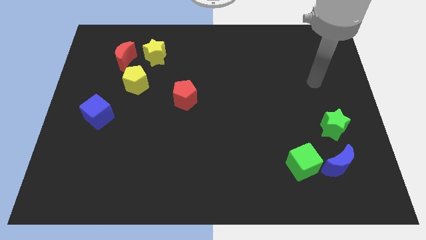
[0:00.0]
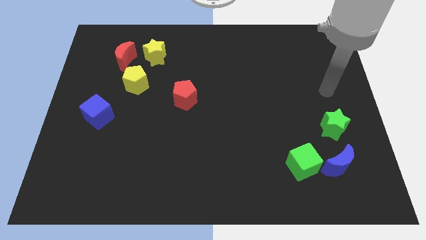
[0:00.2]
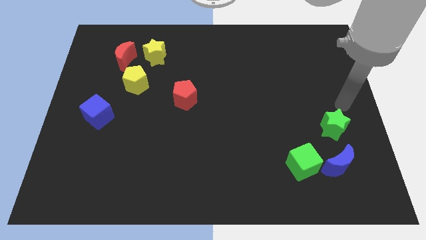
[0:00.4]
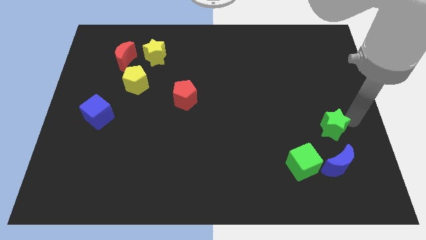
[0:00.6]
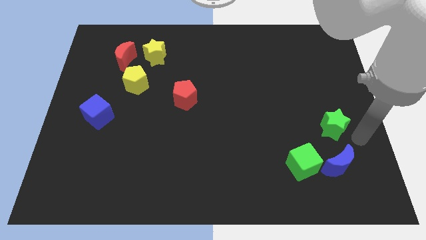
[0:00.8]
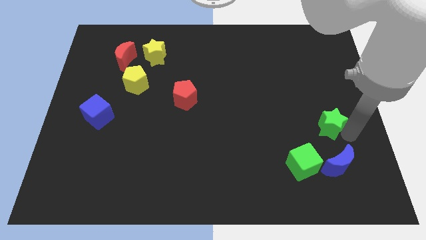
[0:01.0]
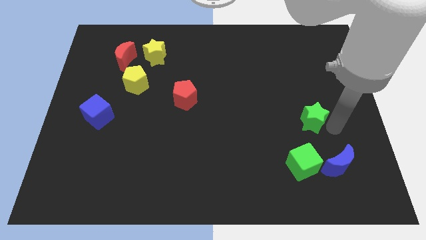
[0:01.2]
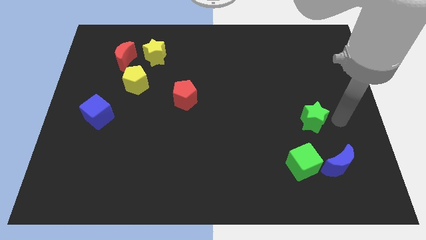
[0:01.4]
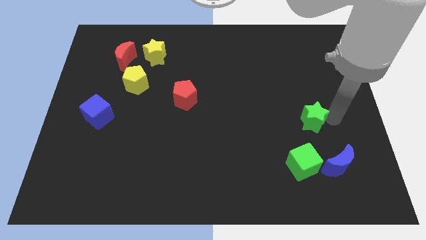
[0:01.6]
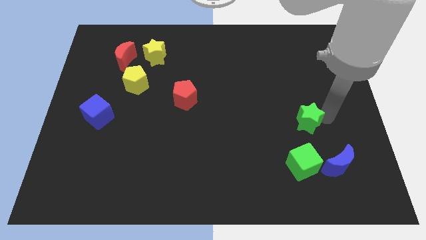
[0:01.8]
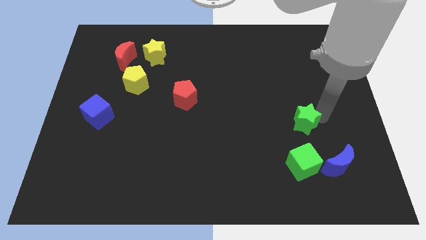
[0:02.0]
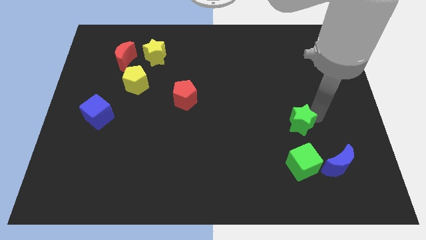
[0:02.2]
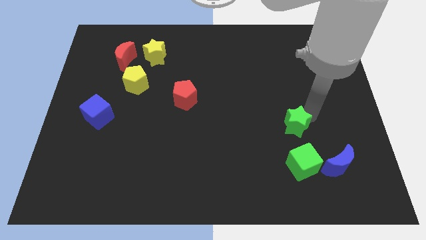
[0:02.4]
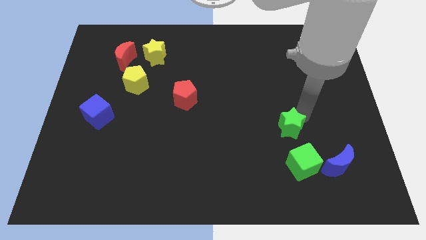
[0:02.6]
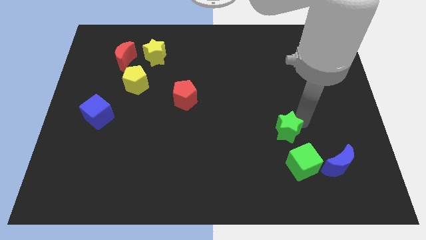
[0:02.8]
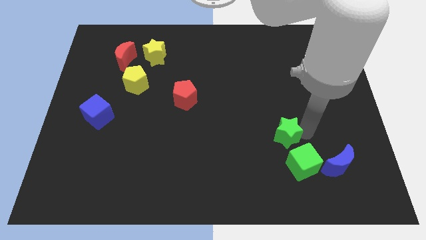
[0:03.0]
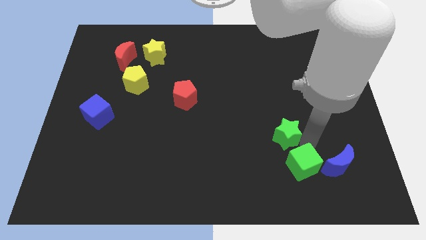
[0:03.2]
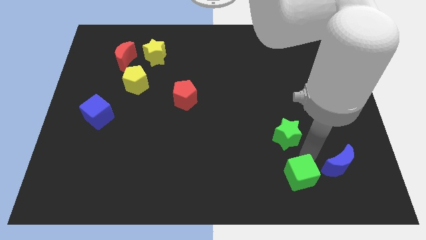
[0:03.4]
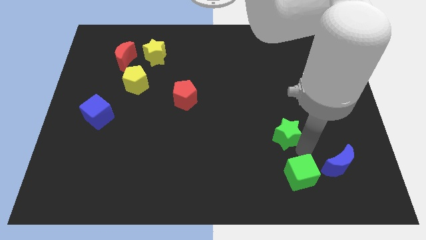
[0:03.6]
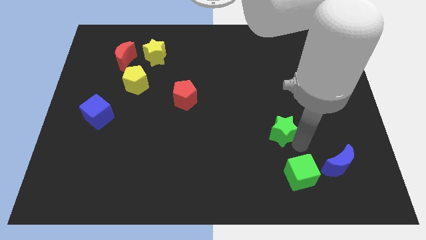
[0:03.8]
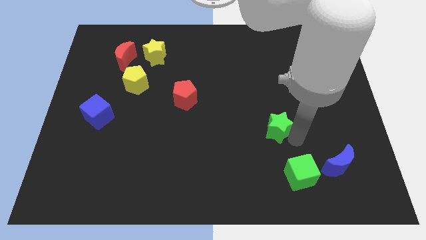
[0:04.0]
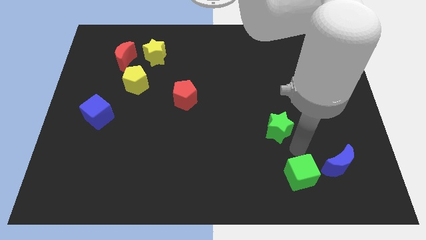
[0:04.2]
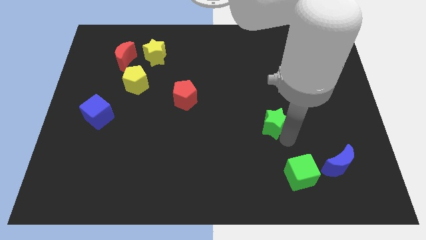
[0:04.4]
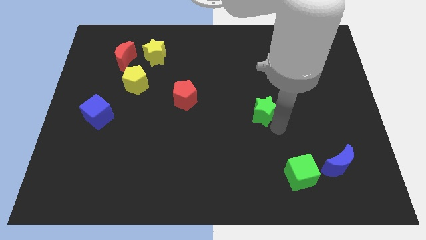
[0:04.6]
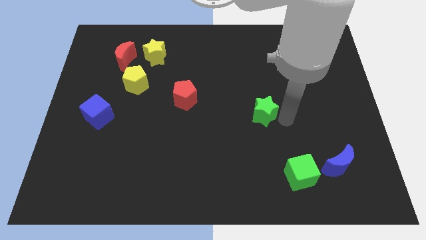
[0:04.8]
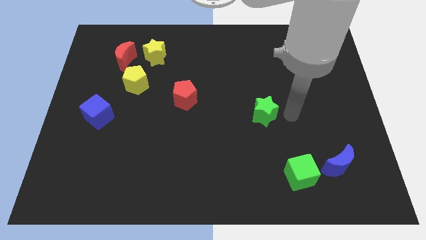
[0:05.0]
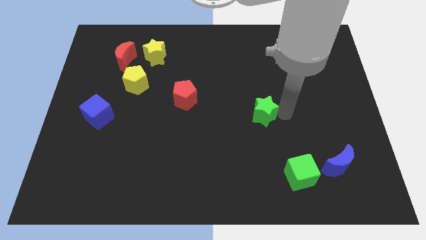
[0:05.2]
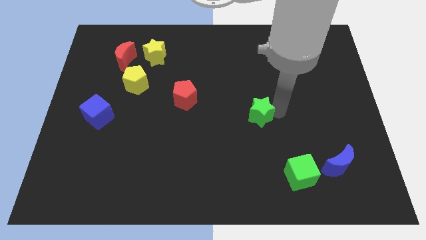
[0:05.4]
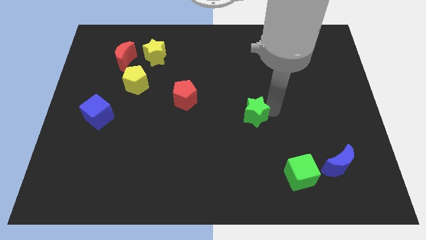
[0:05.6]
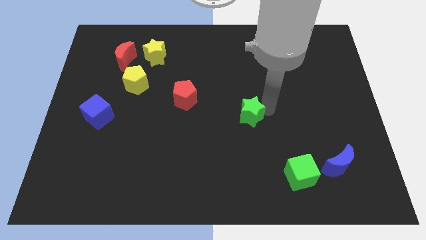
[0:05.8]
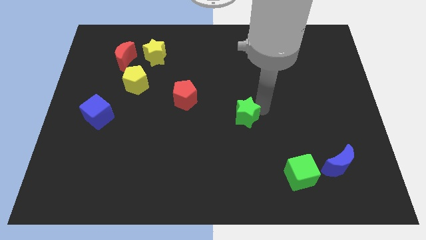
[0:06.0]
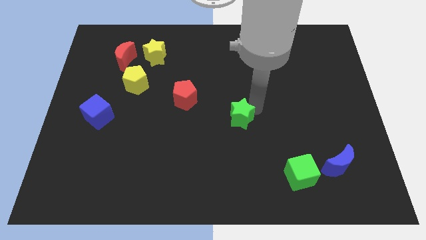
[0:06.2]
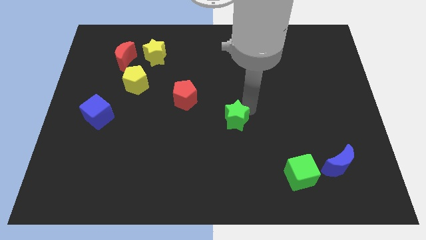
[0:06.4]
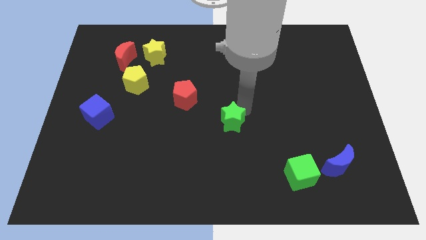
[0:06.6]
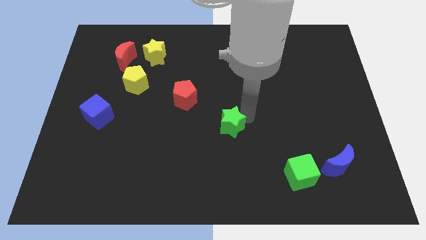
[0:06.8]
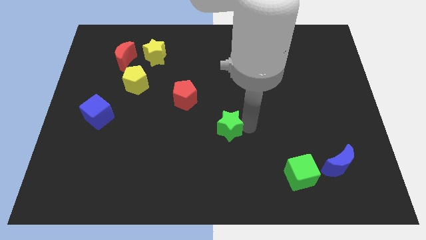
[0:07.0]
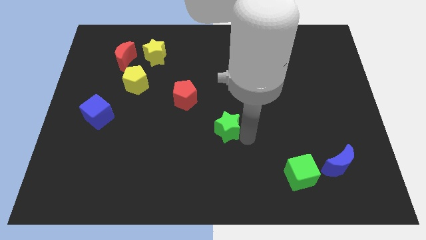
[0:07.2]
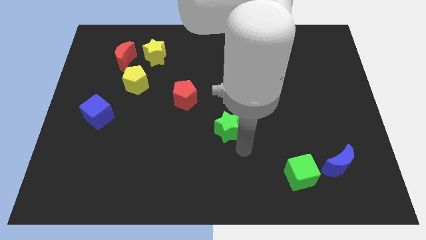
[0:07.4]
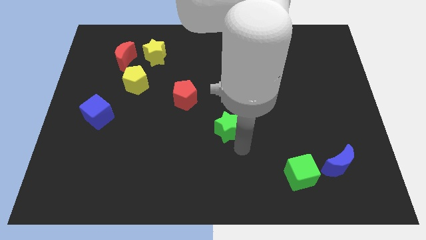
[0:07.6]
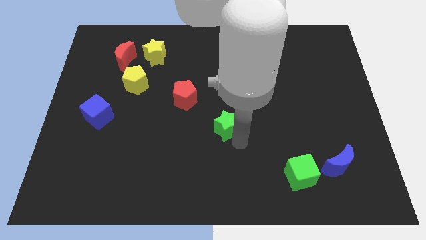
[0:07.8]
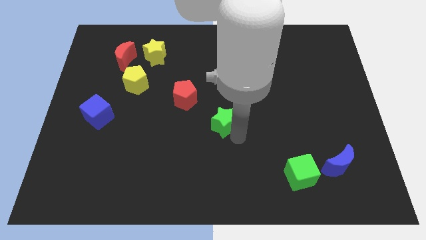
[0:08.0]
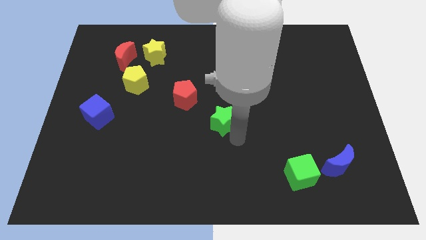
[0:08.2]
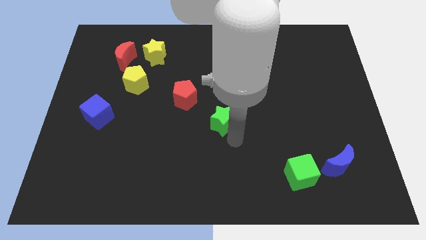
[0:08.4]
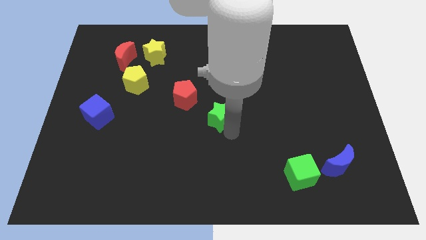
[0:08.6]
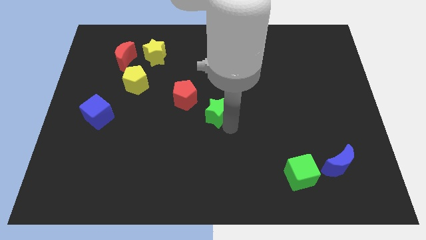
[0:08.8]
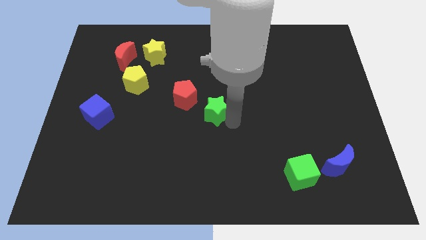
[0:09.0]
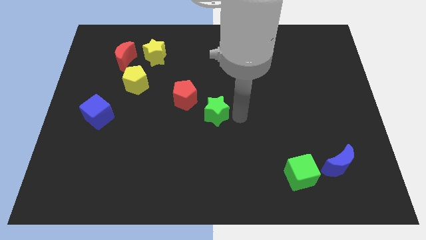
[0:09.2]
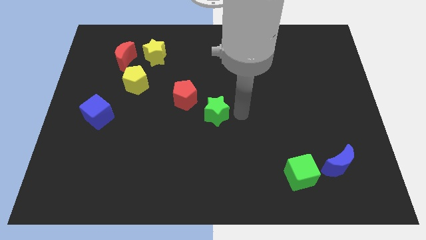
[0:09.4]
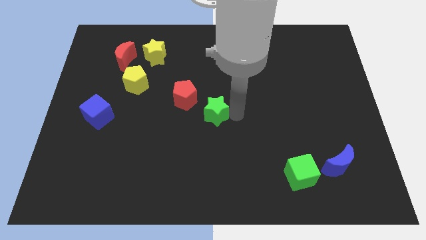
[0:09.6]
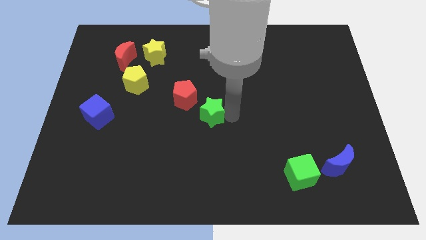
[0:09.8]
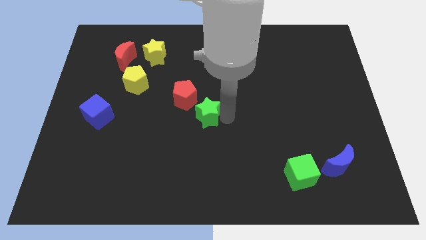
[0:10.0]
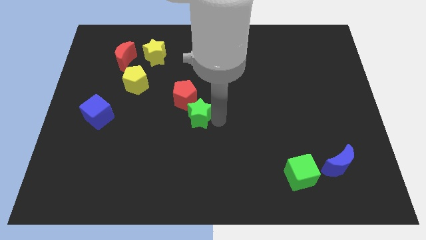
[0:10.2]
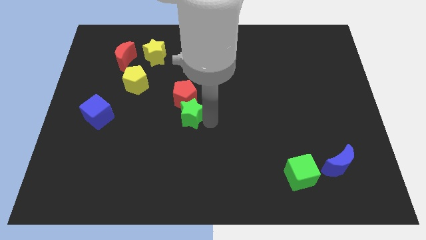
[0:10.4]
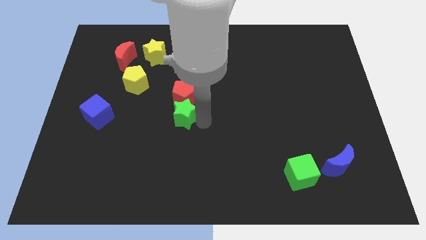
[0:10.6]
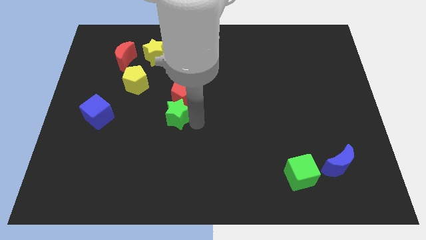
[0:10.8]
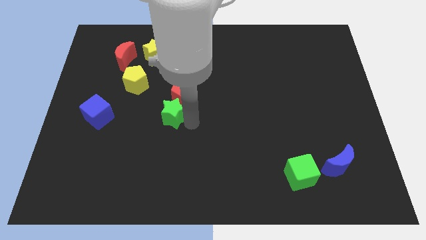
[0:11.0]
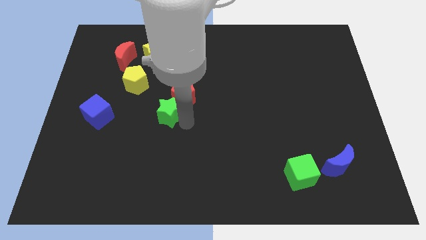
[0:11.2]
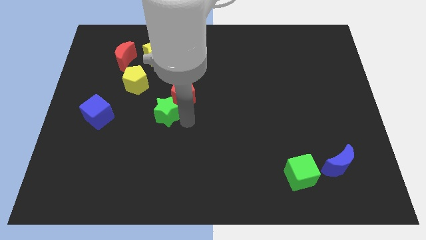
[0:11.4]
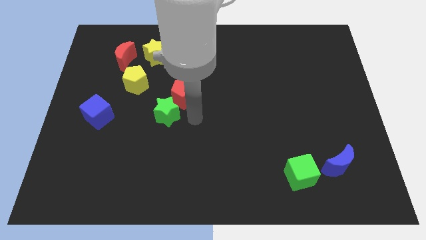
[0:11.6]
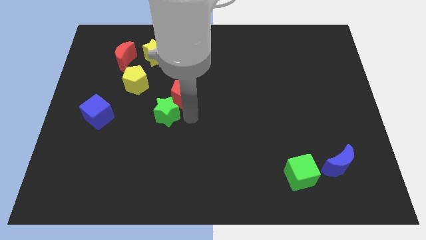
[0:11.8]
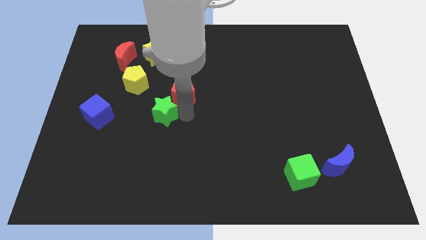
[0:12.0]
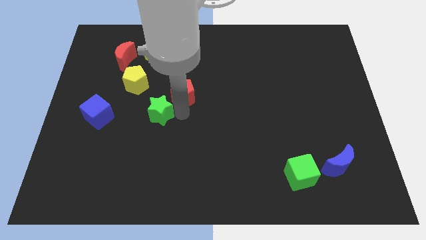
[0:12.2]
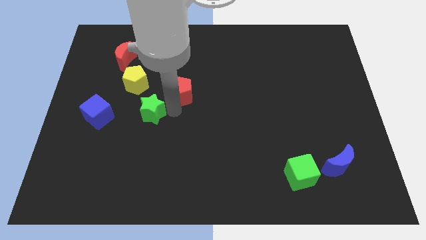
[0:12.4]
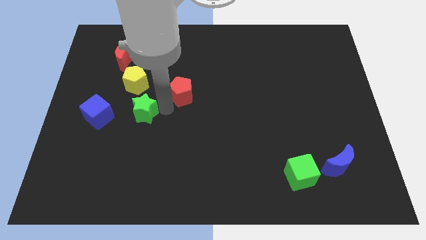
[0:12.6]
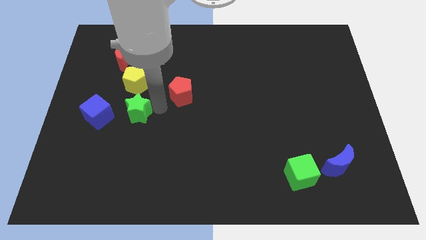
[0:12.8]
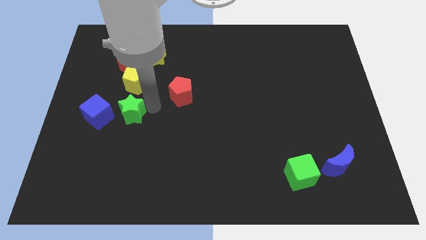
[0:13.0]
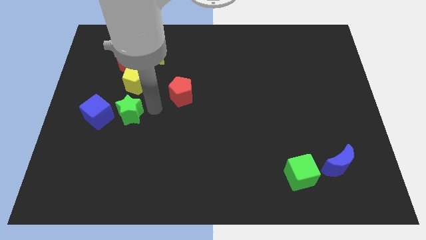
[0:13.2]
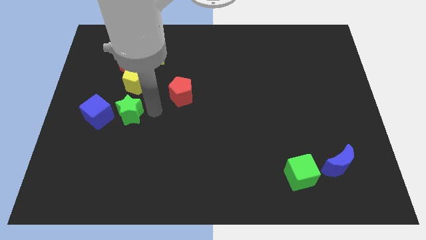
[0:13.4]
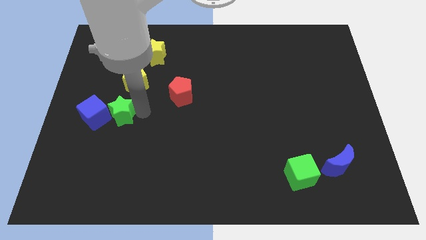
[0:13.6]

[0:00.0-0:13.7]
move the green star close to the blue cube
